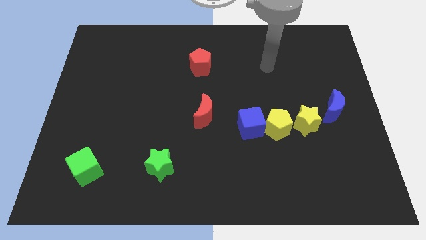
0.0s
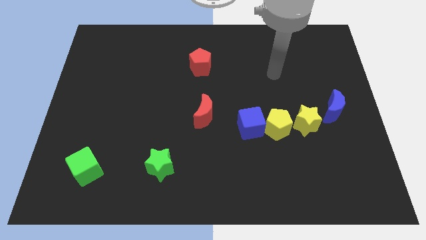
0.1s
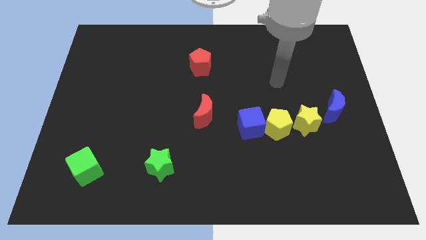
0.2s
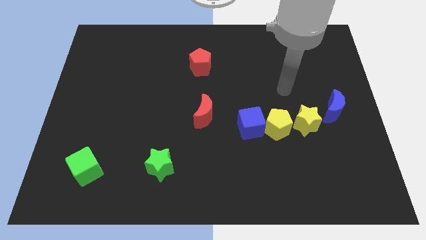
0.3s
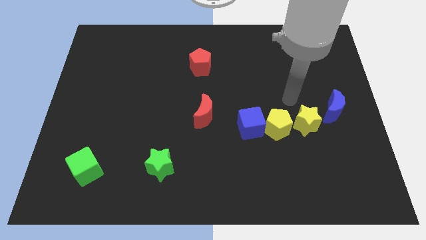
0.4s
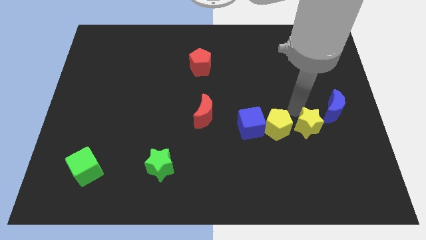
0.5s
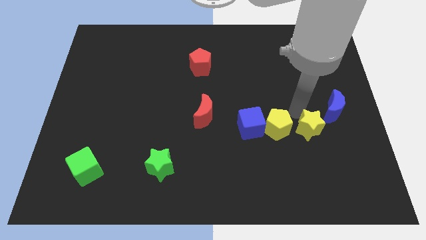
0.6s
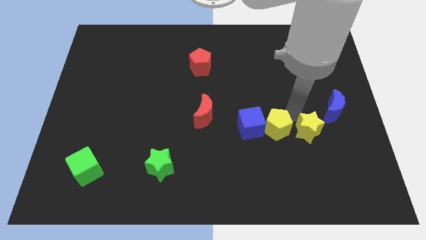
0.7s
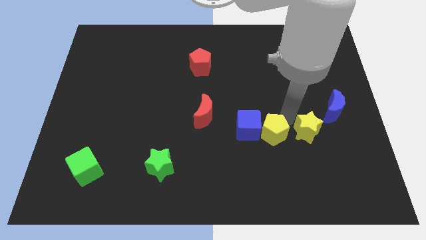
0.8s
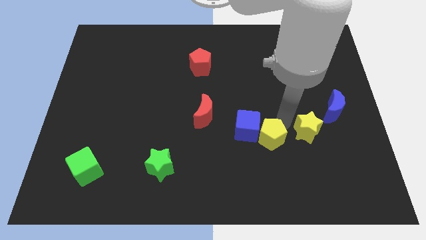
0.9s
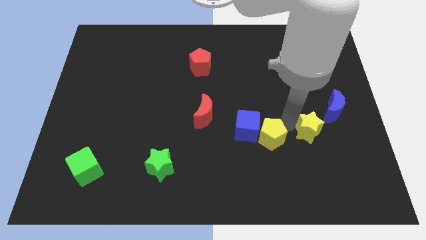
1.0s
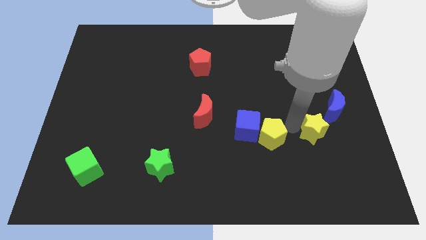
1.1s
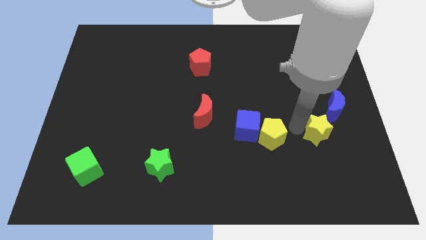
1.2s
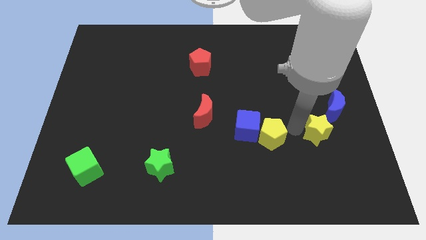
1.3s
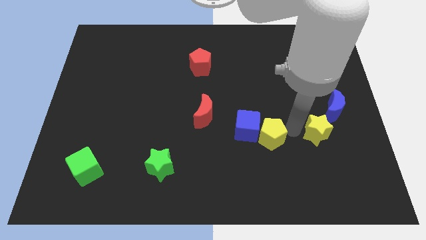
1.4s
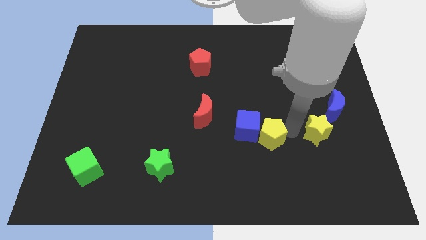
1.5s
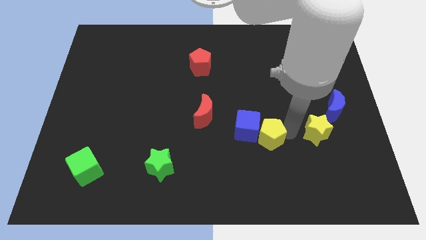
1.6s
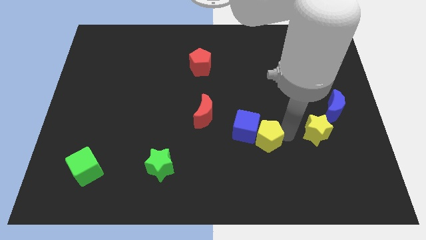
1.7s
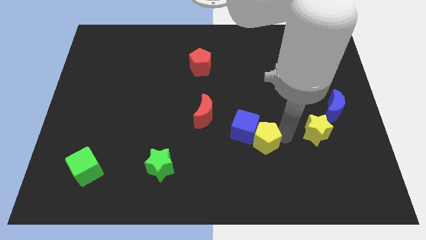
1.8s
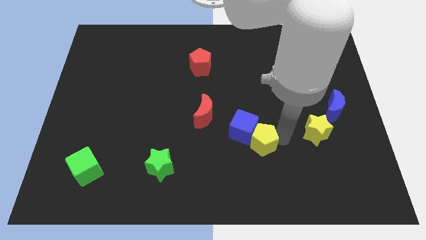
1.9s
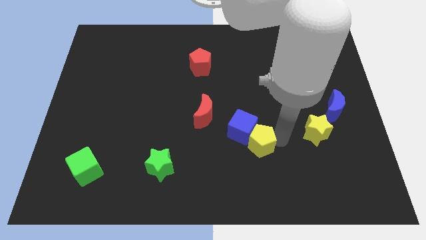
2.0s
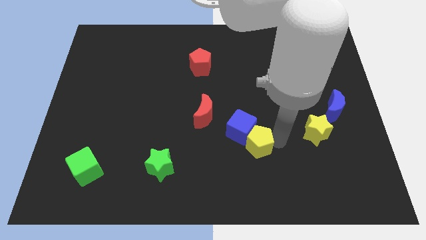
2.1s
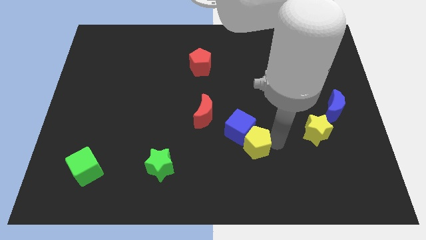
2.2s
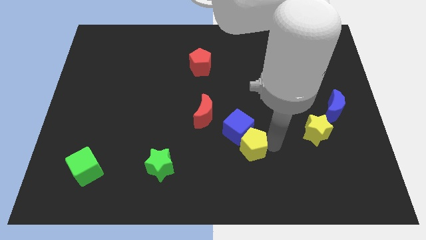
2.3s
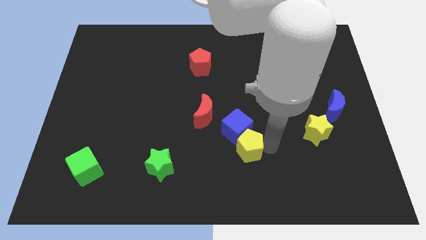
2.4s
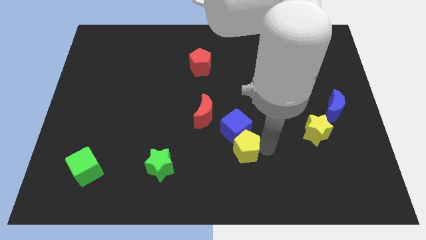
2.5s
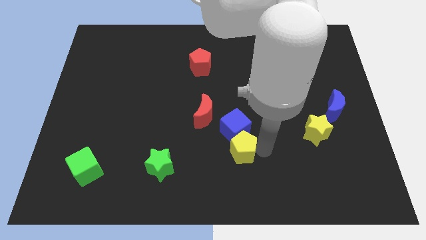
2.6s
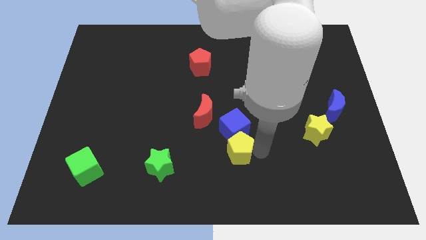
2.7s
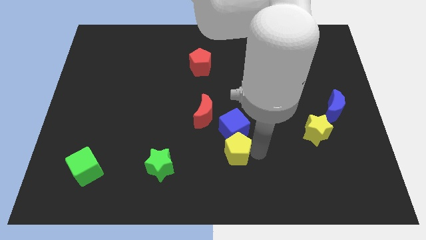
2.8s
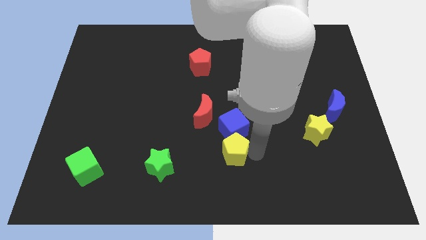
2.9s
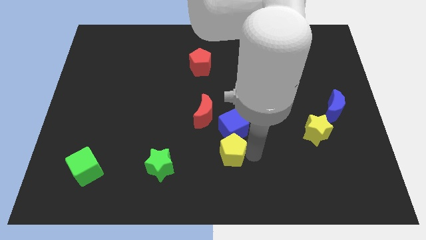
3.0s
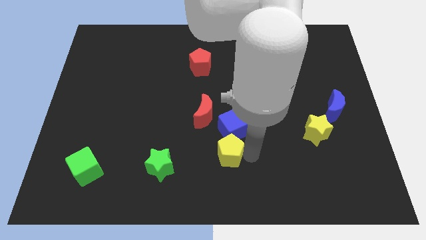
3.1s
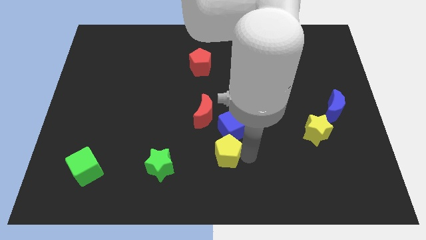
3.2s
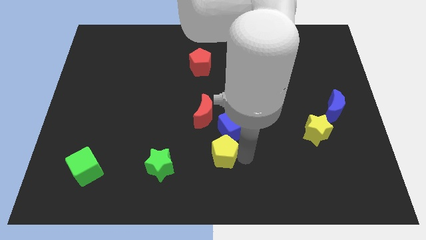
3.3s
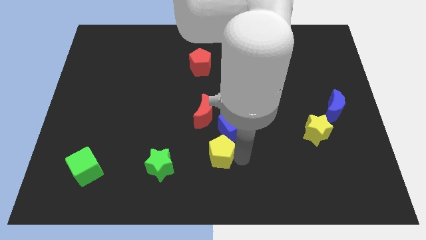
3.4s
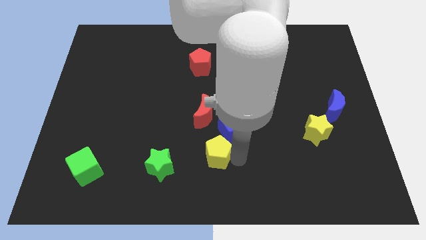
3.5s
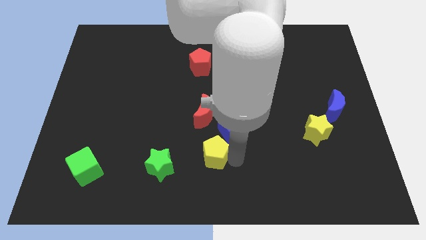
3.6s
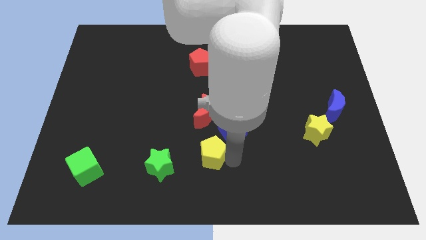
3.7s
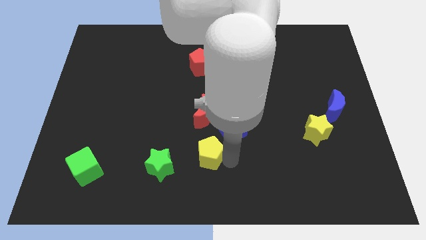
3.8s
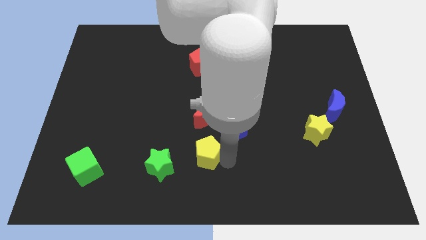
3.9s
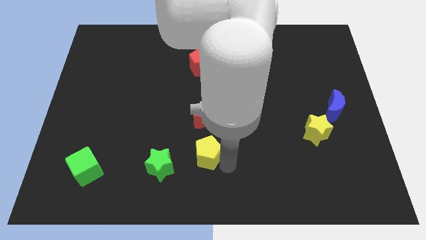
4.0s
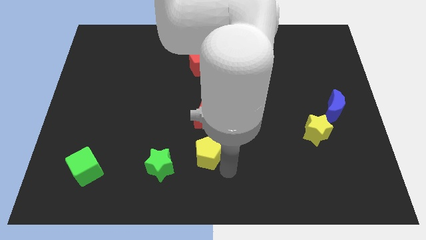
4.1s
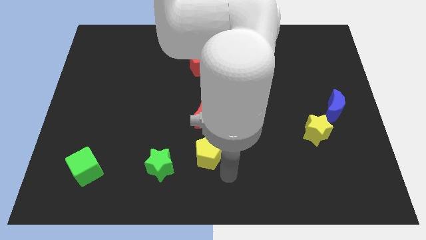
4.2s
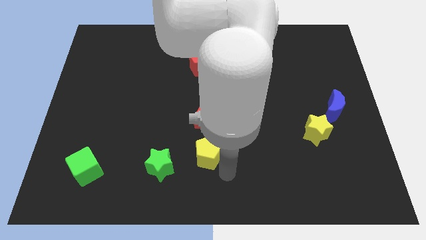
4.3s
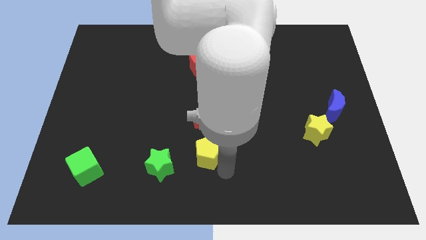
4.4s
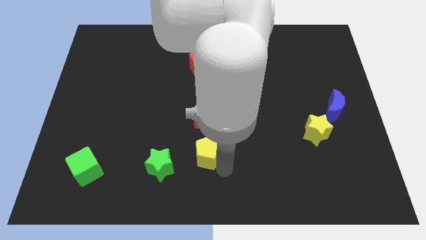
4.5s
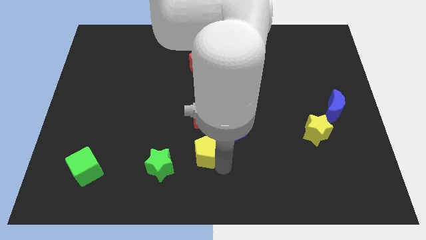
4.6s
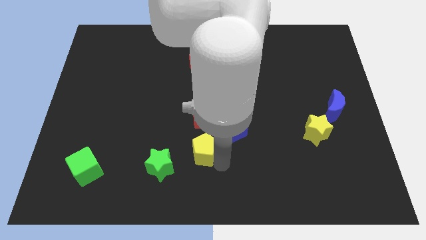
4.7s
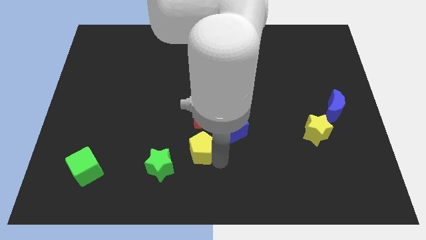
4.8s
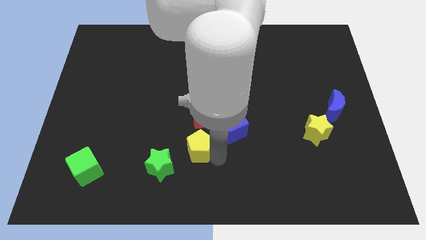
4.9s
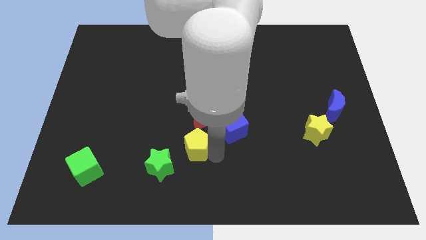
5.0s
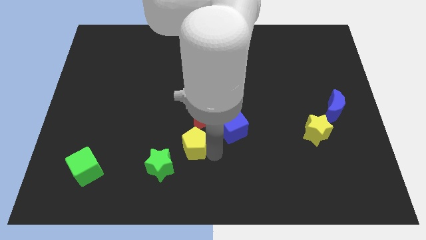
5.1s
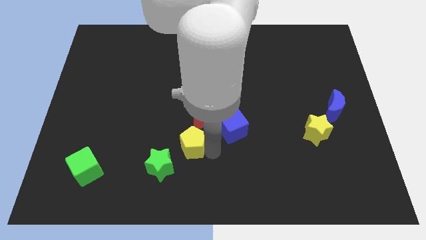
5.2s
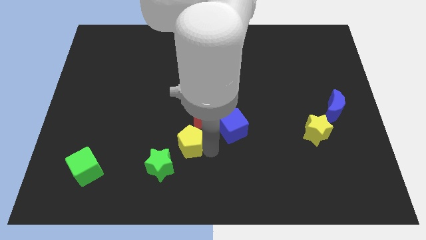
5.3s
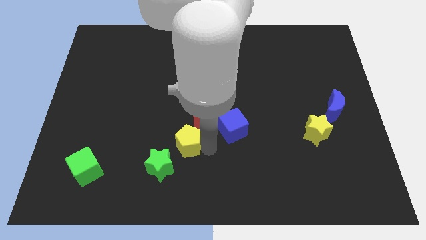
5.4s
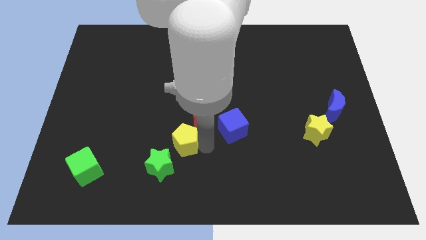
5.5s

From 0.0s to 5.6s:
move the yellow pentagon left

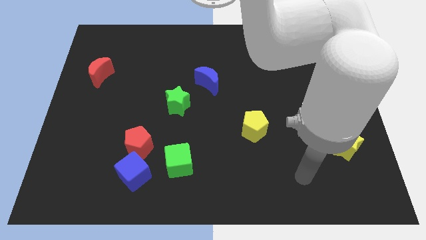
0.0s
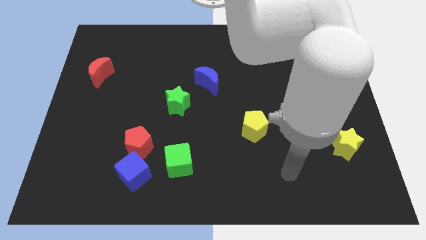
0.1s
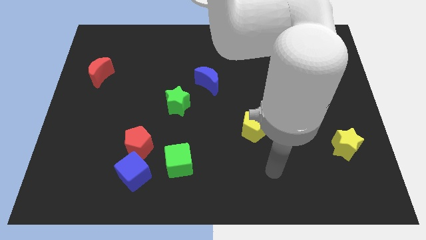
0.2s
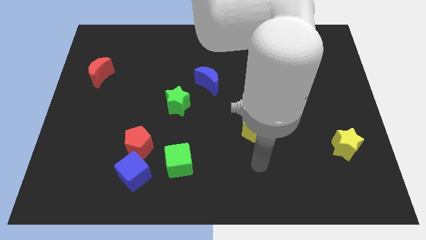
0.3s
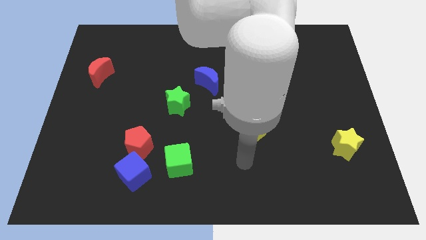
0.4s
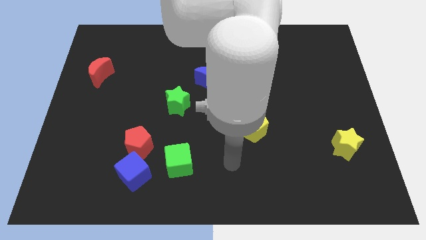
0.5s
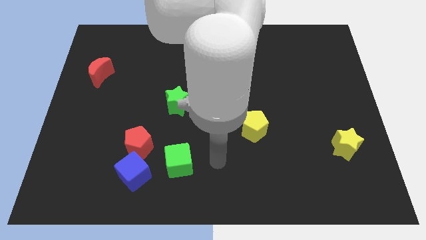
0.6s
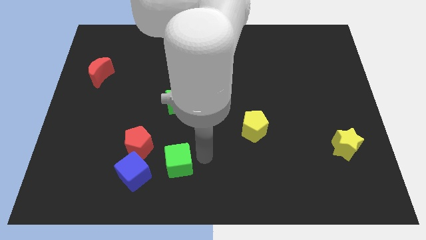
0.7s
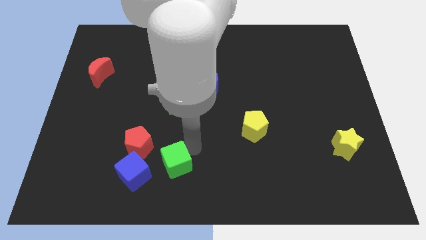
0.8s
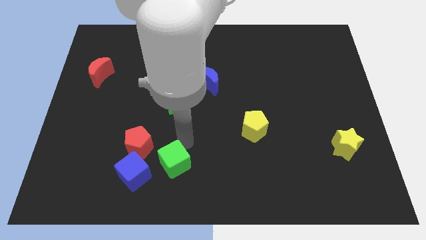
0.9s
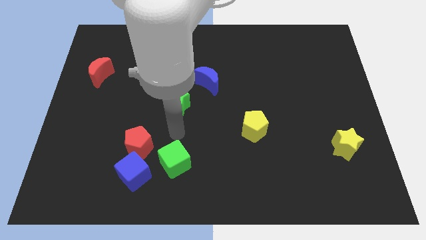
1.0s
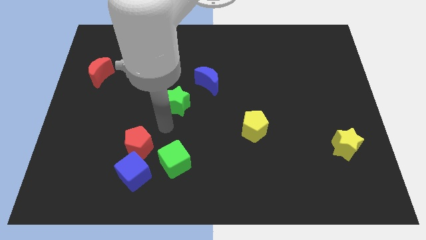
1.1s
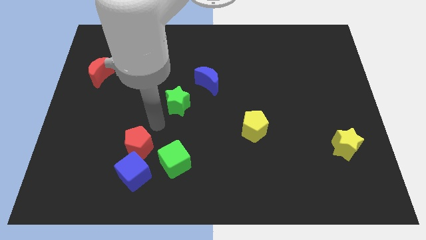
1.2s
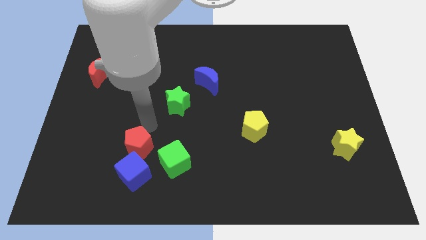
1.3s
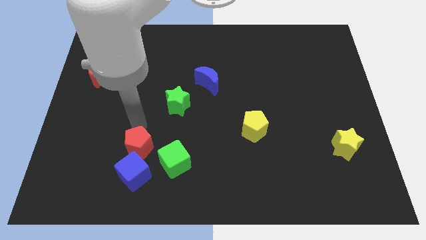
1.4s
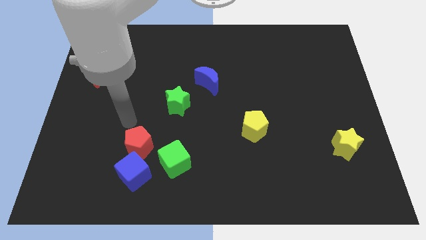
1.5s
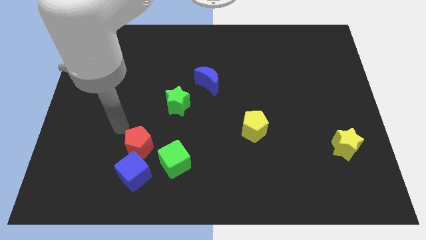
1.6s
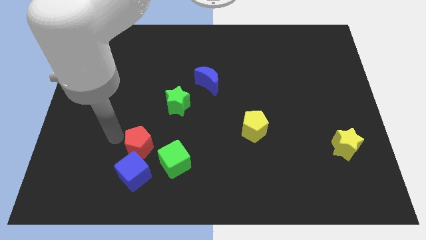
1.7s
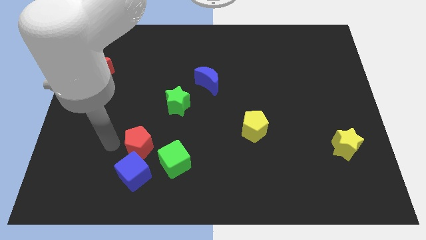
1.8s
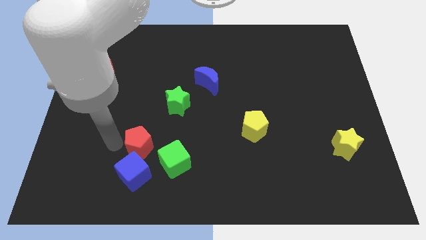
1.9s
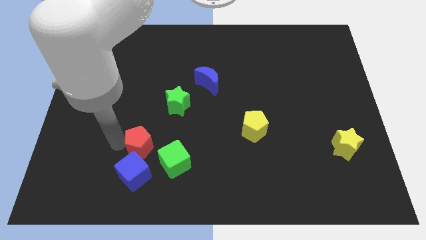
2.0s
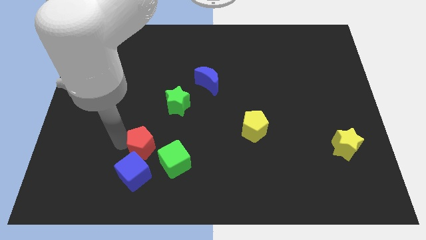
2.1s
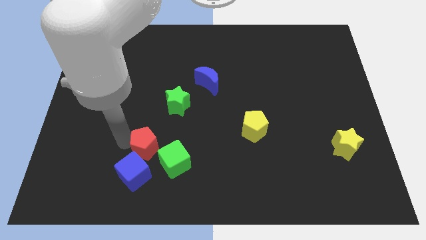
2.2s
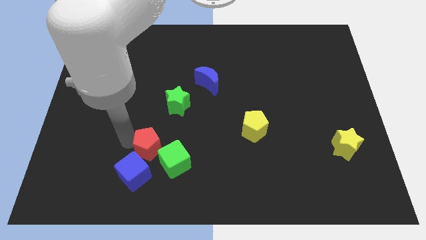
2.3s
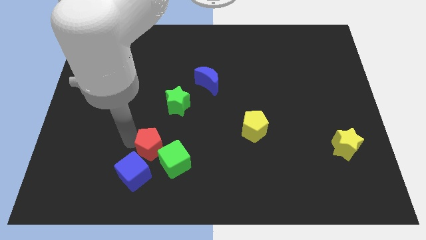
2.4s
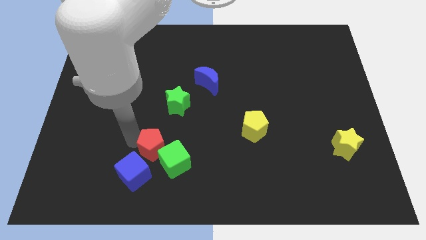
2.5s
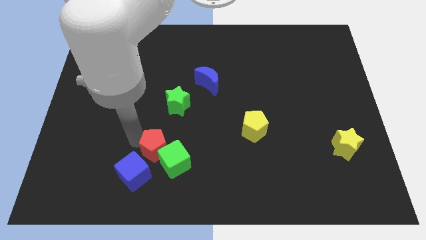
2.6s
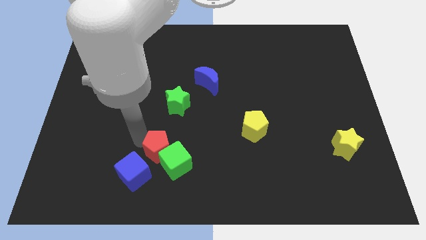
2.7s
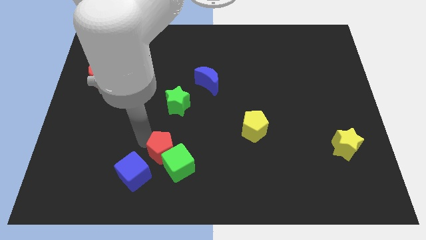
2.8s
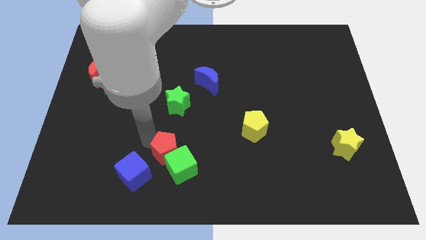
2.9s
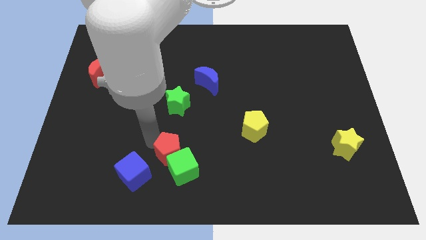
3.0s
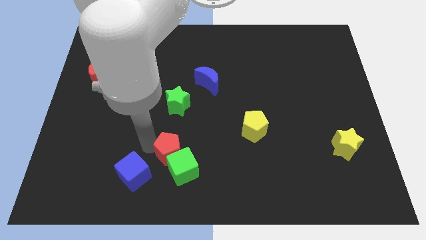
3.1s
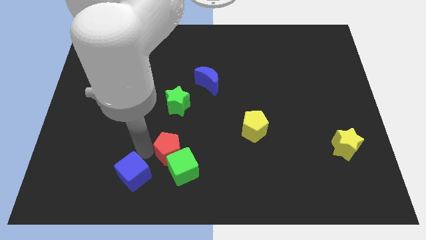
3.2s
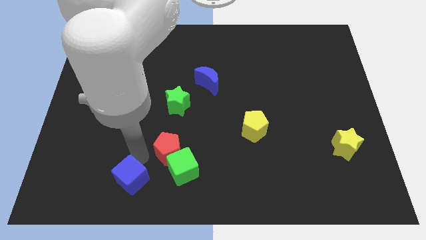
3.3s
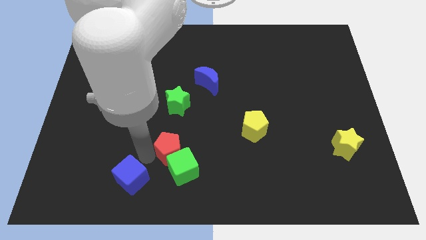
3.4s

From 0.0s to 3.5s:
push the red pentagon right a little
